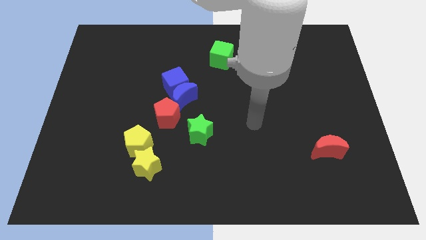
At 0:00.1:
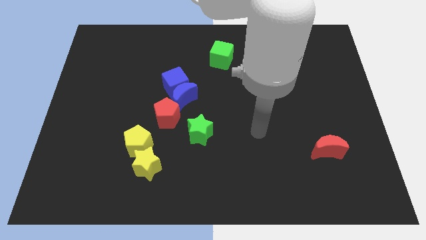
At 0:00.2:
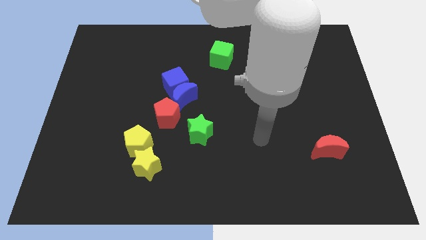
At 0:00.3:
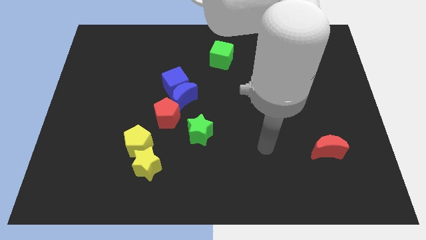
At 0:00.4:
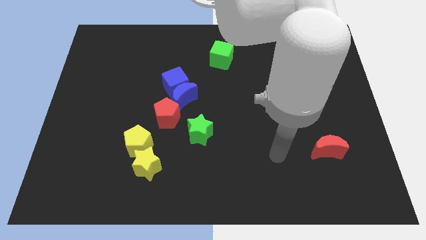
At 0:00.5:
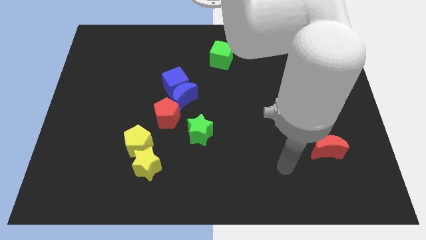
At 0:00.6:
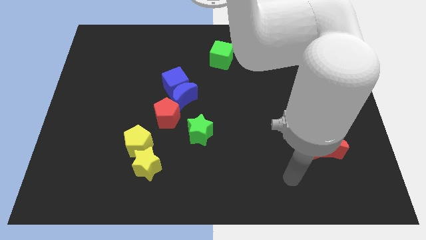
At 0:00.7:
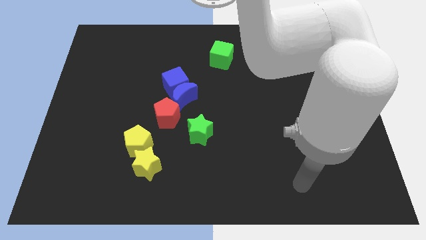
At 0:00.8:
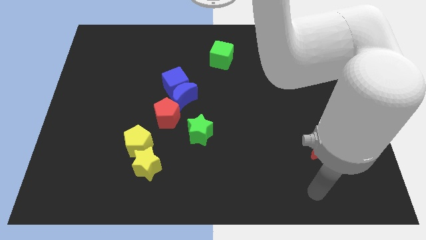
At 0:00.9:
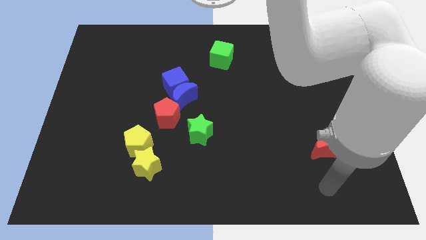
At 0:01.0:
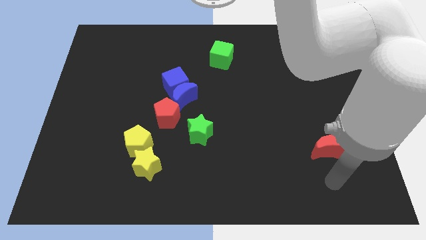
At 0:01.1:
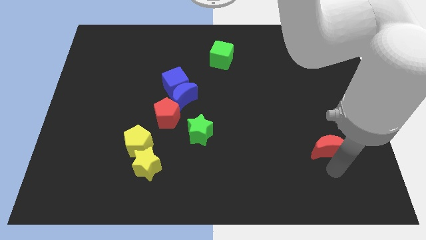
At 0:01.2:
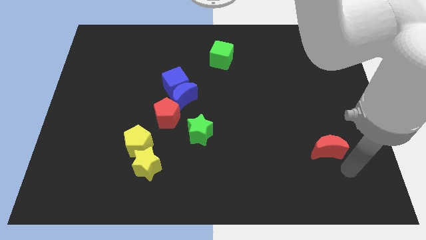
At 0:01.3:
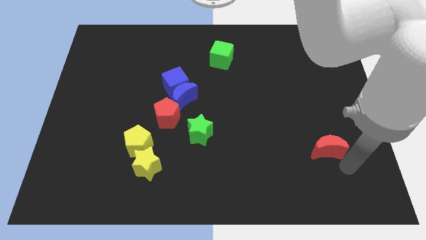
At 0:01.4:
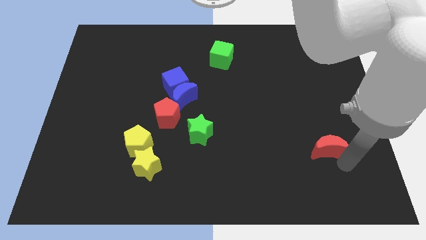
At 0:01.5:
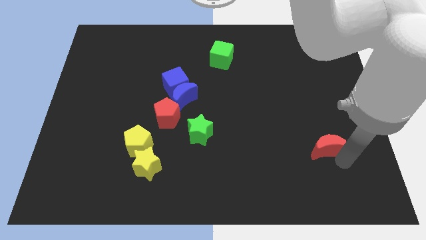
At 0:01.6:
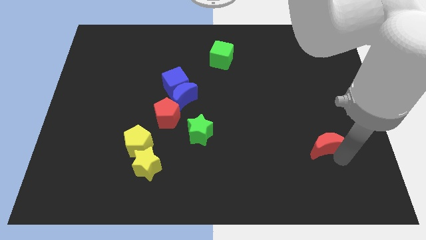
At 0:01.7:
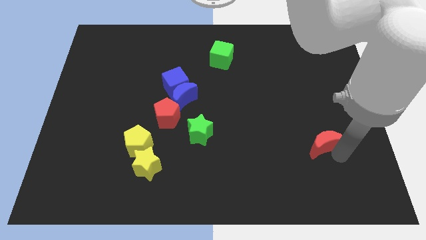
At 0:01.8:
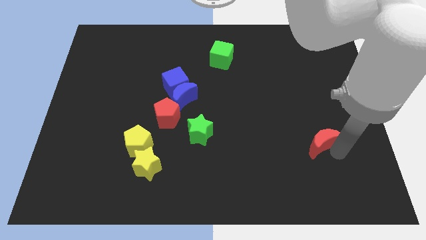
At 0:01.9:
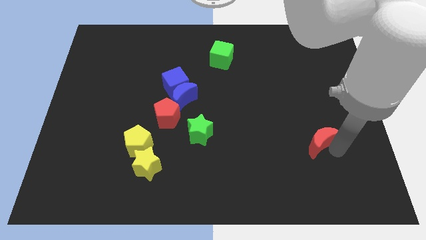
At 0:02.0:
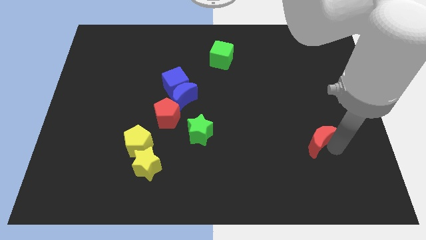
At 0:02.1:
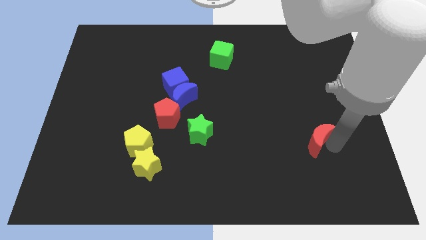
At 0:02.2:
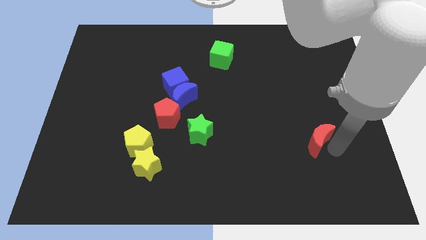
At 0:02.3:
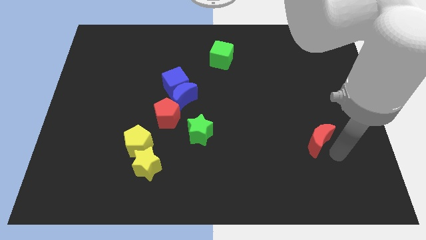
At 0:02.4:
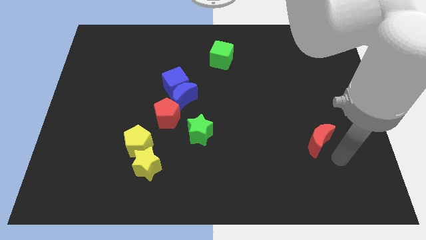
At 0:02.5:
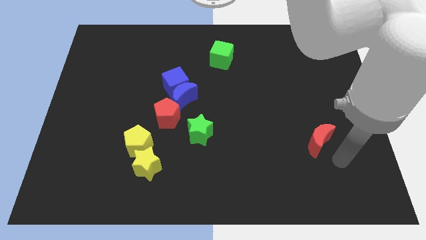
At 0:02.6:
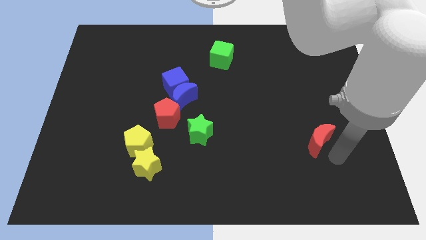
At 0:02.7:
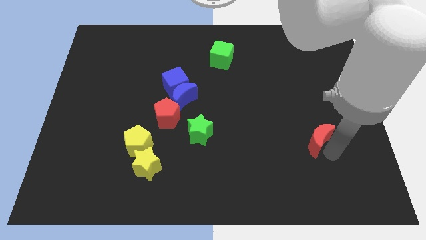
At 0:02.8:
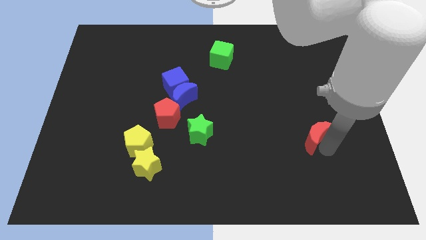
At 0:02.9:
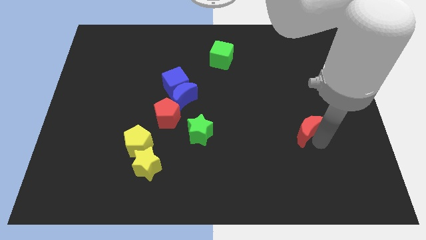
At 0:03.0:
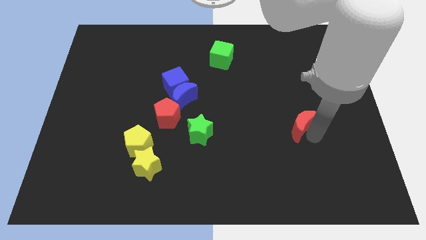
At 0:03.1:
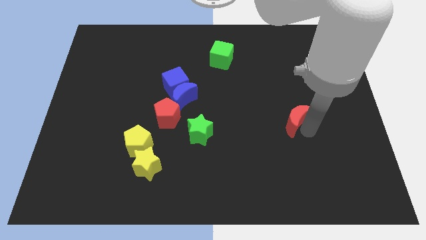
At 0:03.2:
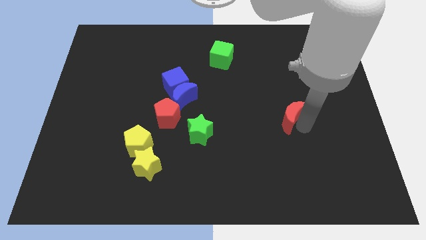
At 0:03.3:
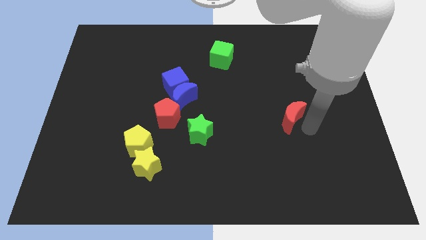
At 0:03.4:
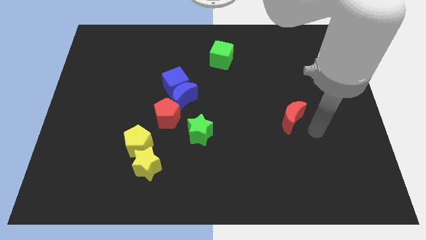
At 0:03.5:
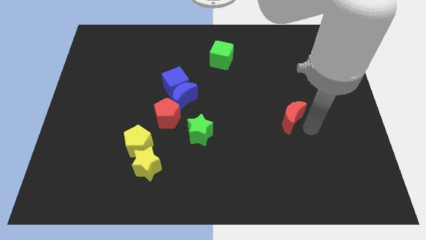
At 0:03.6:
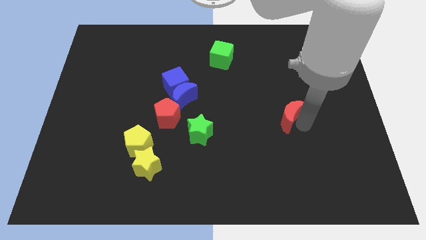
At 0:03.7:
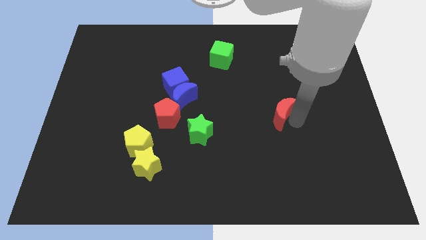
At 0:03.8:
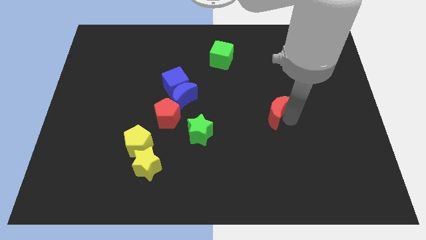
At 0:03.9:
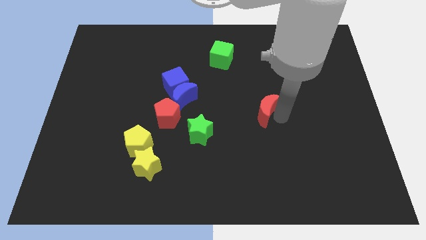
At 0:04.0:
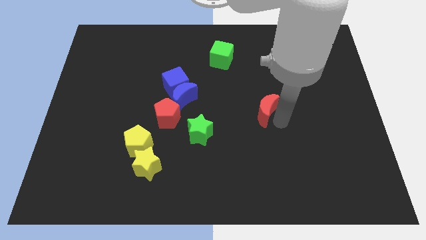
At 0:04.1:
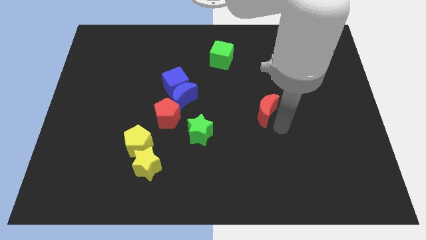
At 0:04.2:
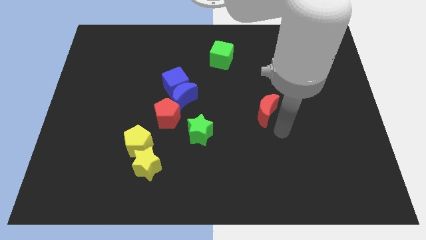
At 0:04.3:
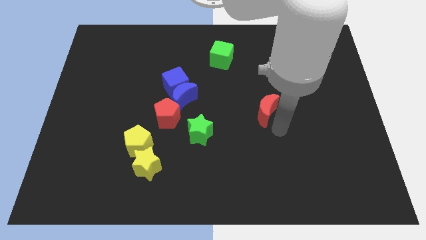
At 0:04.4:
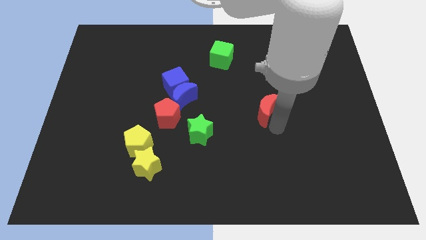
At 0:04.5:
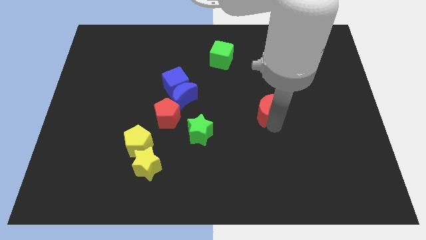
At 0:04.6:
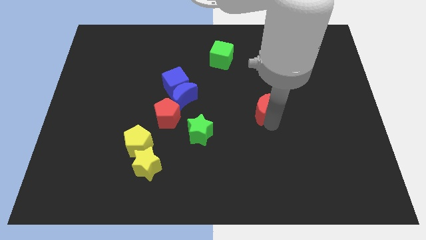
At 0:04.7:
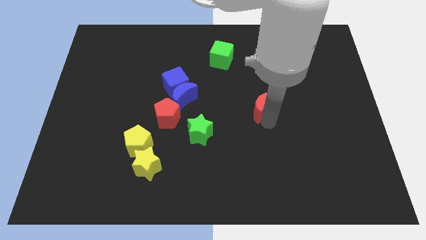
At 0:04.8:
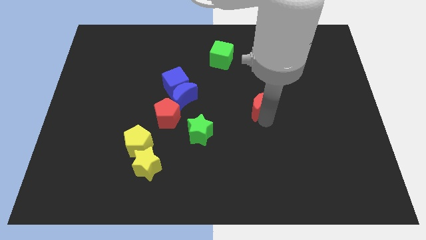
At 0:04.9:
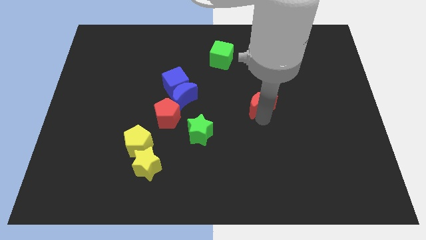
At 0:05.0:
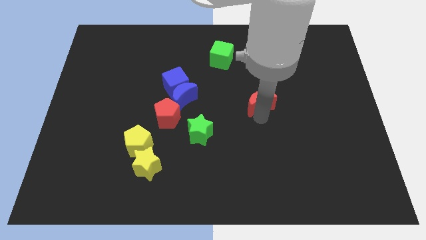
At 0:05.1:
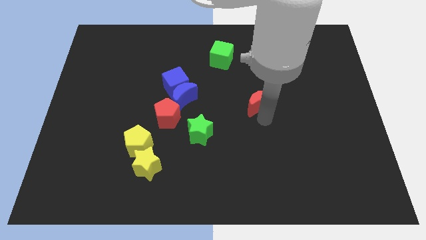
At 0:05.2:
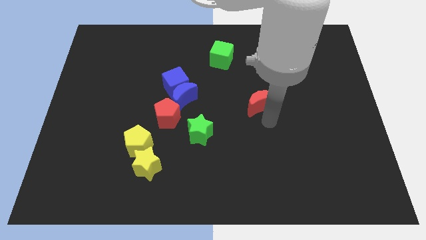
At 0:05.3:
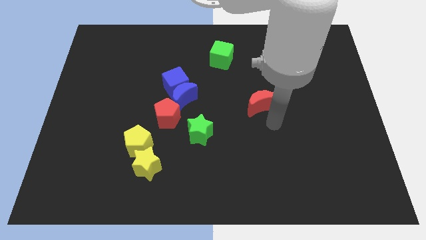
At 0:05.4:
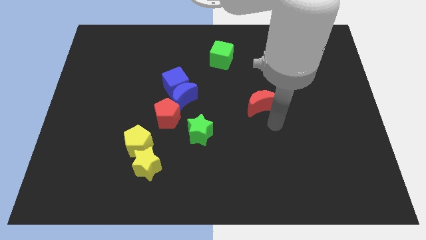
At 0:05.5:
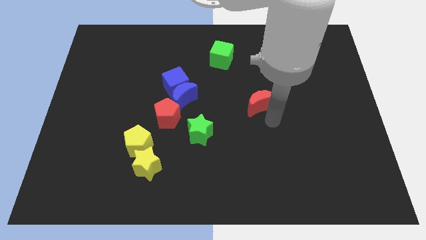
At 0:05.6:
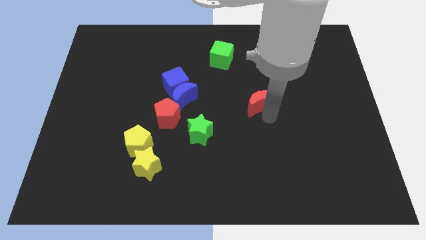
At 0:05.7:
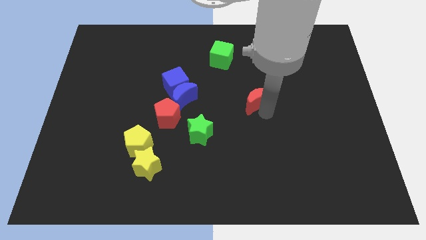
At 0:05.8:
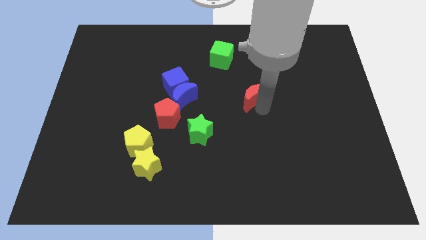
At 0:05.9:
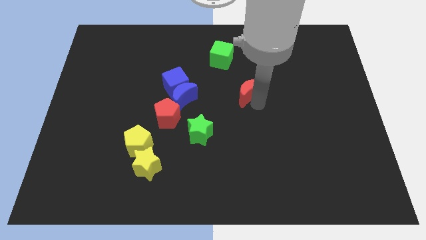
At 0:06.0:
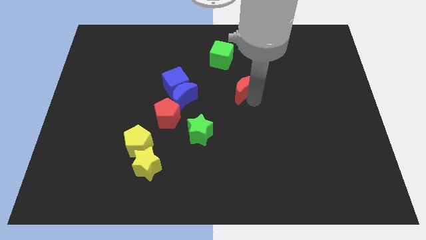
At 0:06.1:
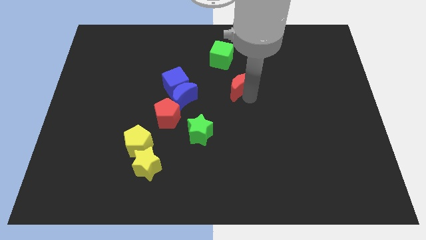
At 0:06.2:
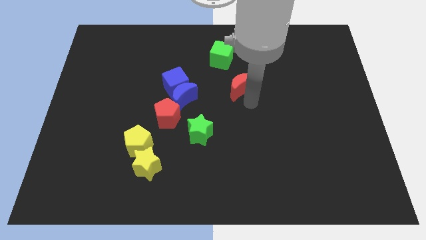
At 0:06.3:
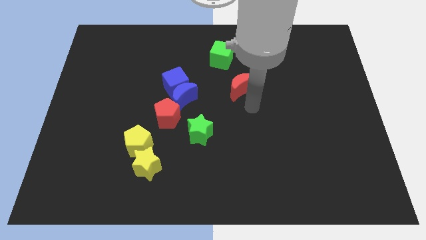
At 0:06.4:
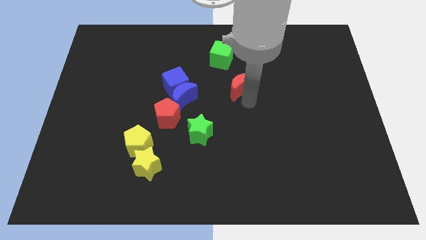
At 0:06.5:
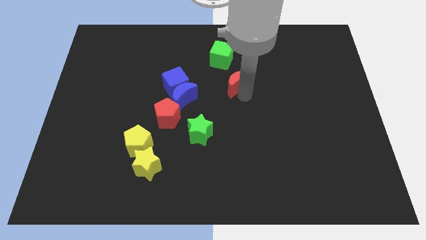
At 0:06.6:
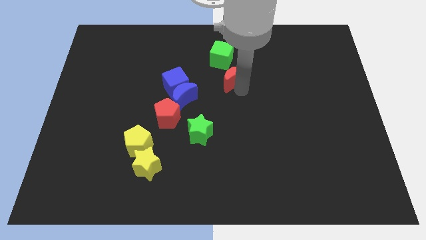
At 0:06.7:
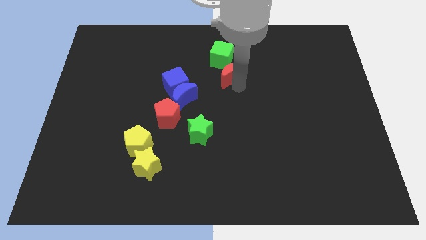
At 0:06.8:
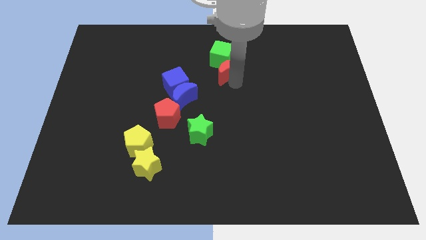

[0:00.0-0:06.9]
slide the red moon next to the green cube
